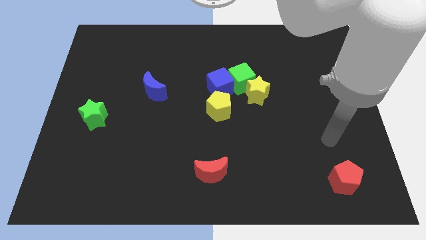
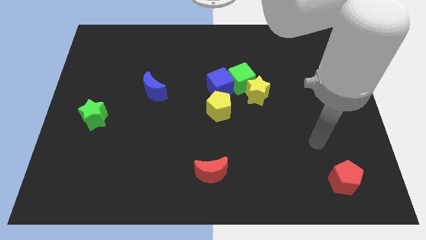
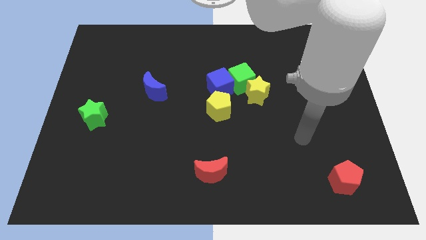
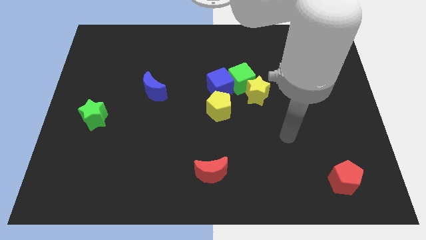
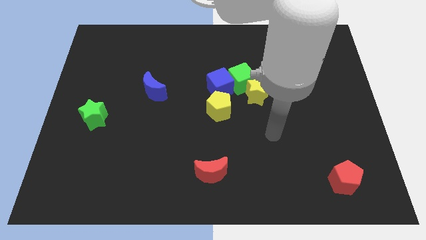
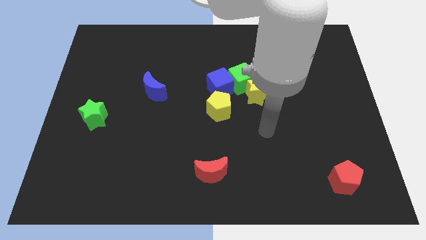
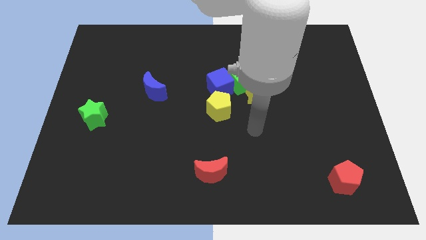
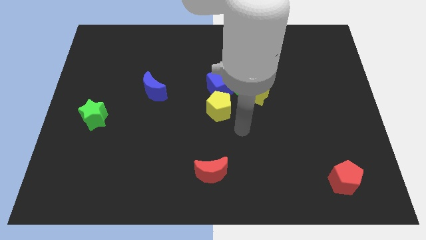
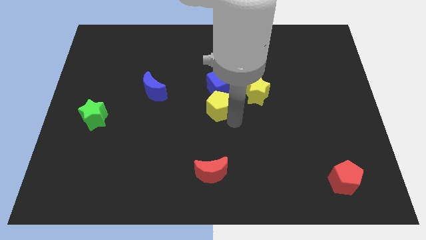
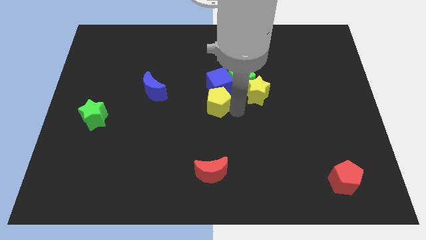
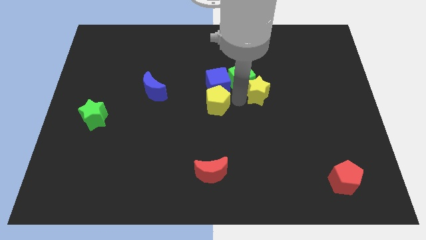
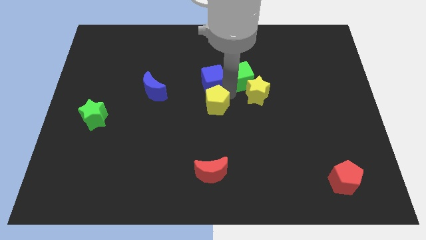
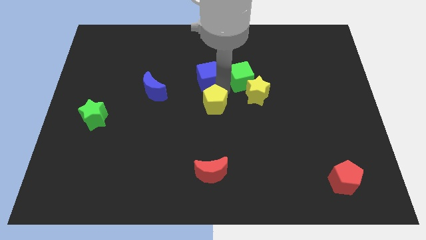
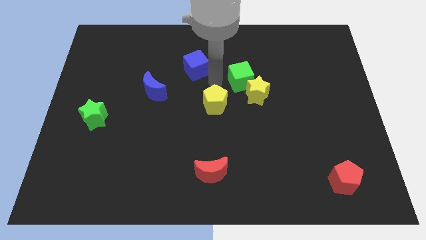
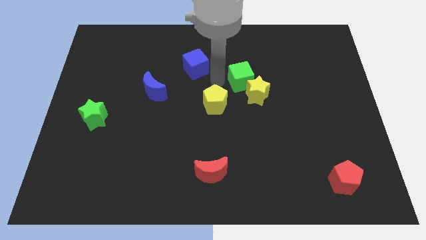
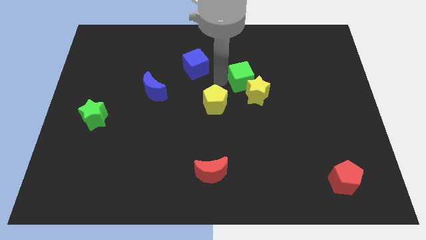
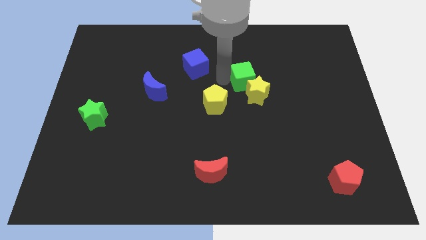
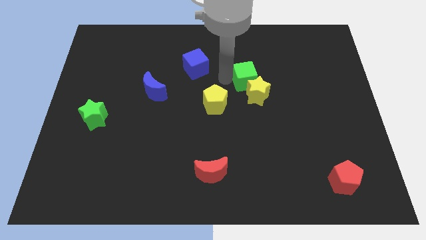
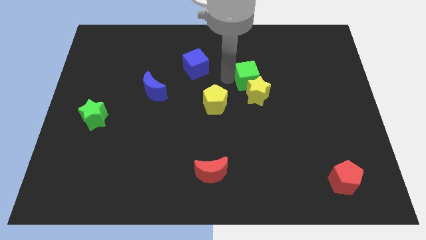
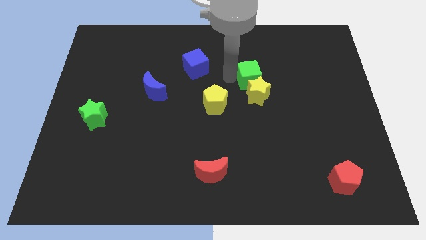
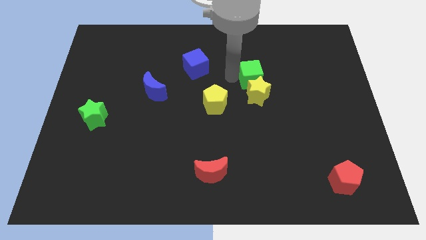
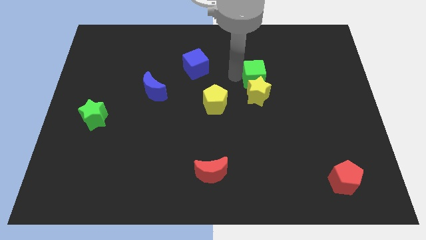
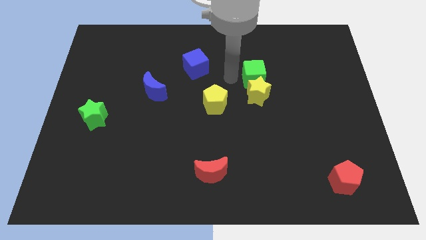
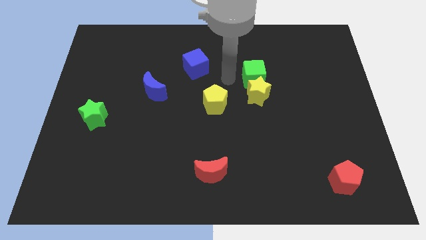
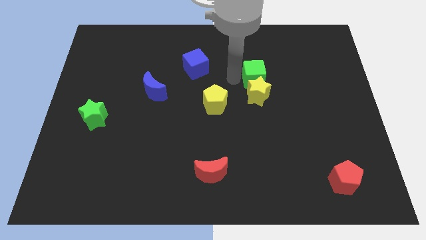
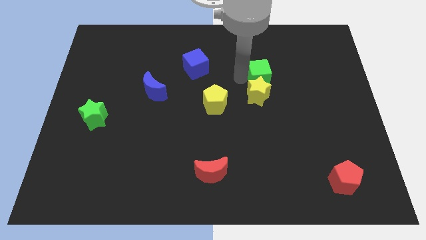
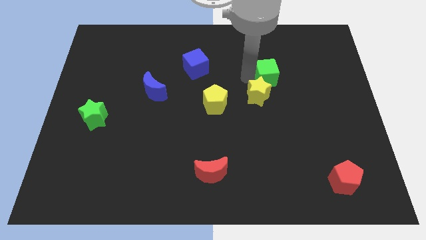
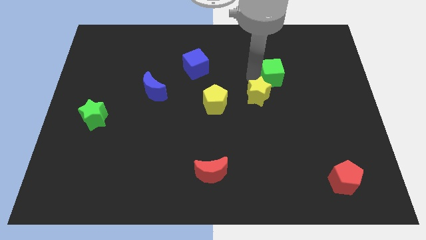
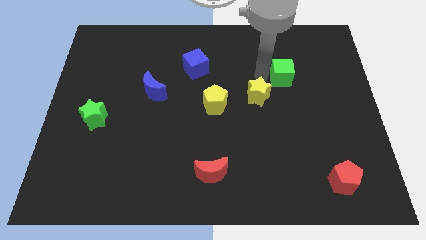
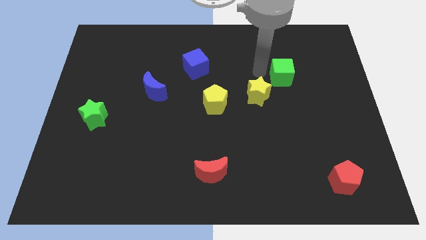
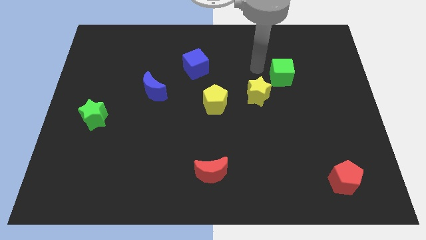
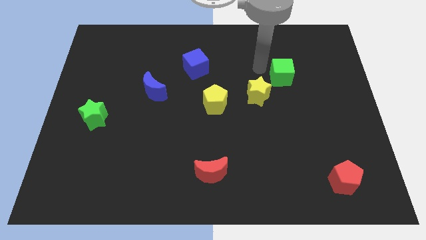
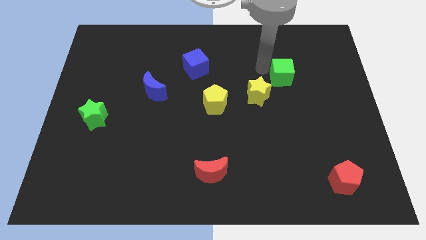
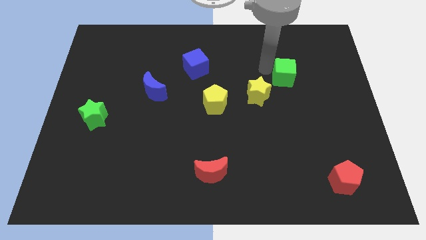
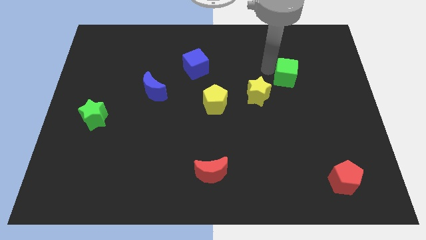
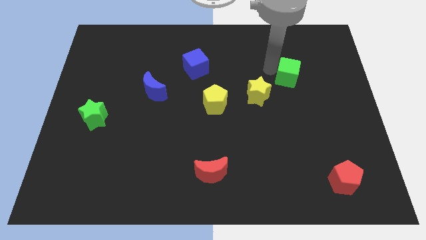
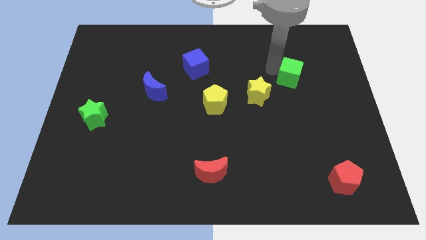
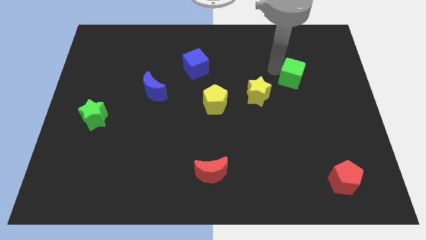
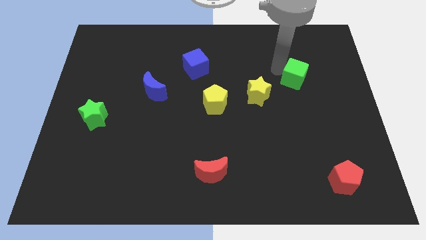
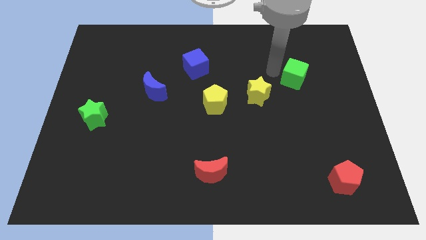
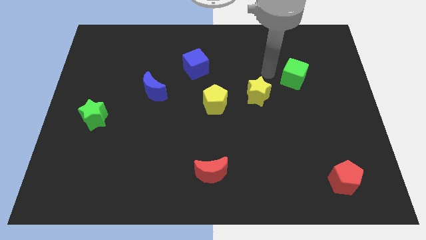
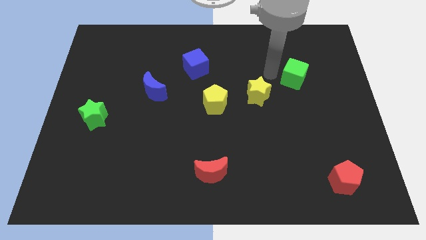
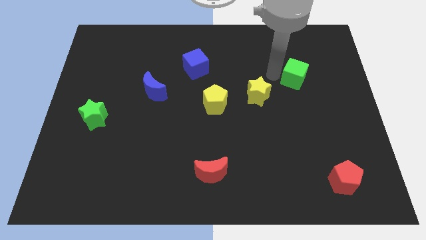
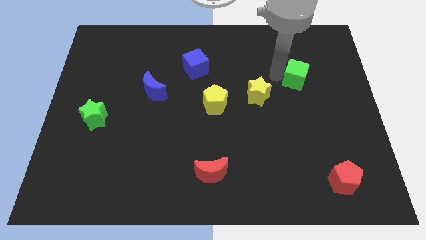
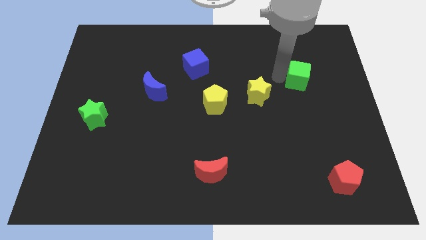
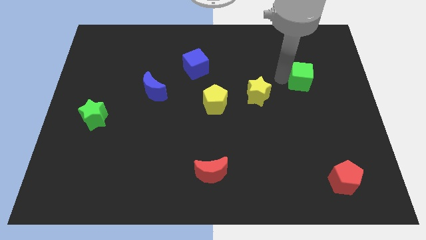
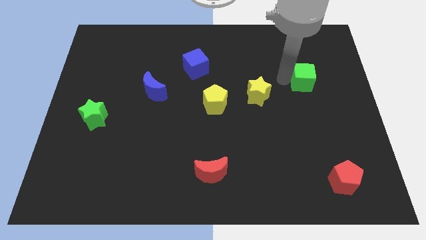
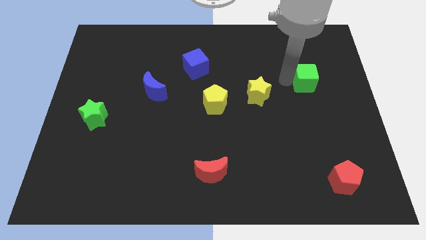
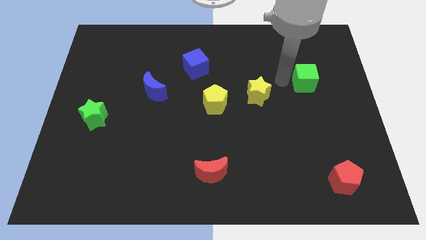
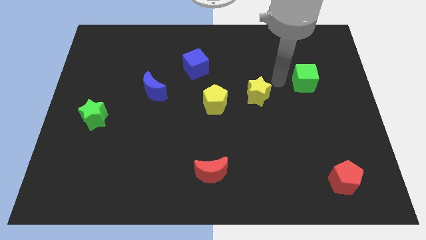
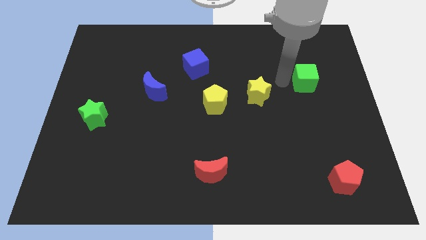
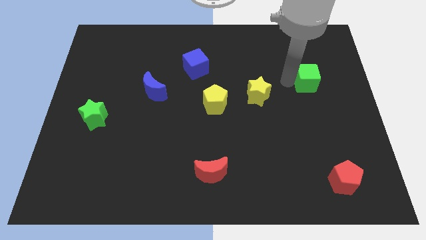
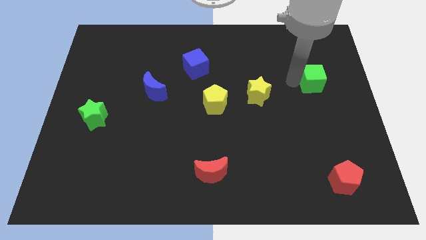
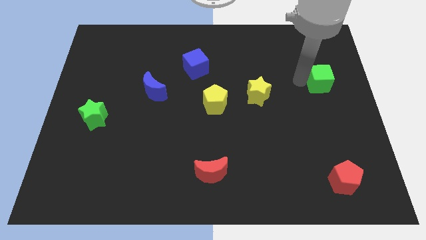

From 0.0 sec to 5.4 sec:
push the green cube to the right side

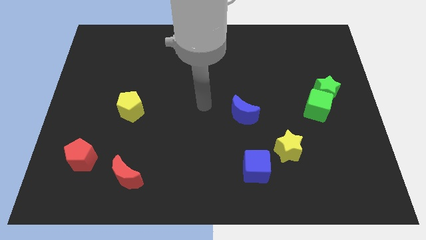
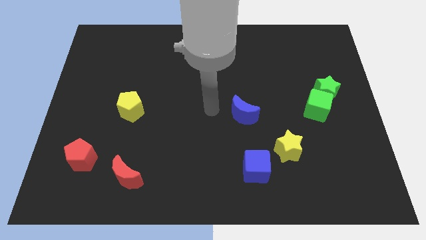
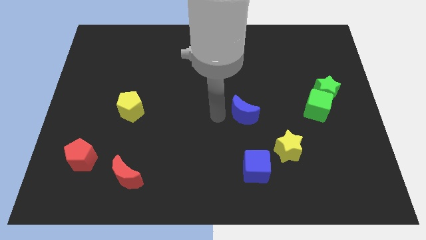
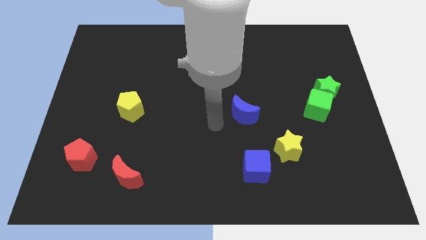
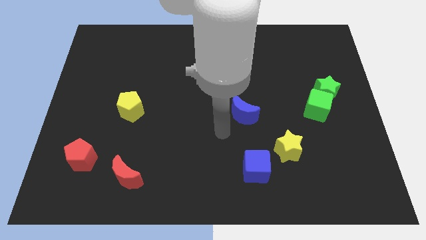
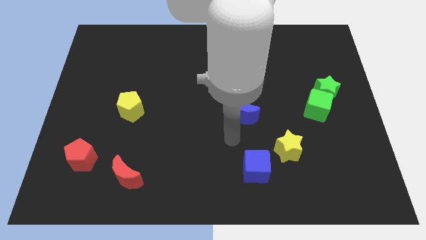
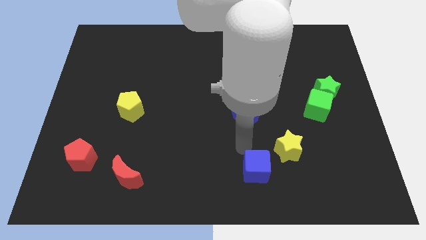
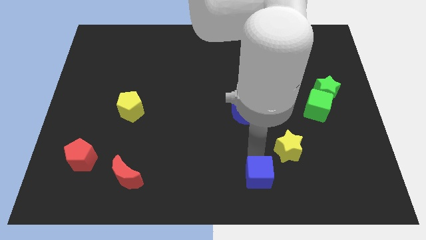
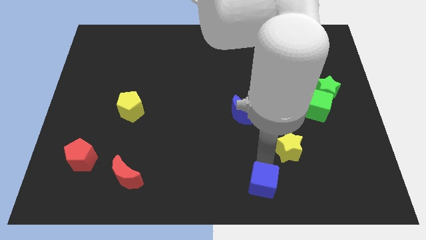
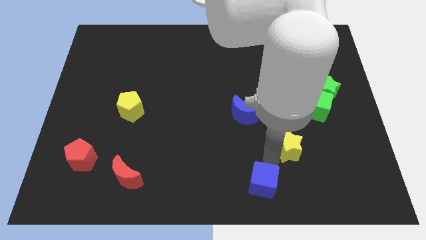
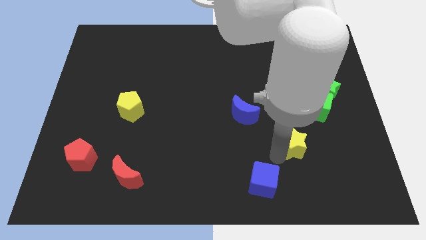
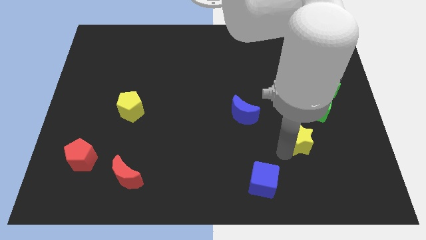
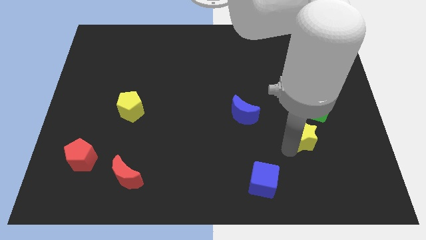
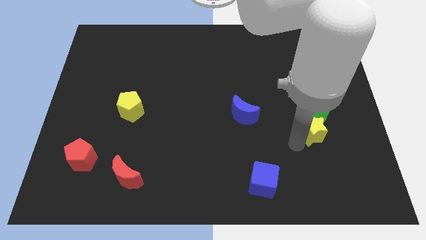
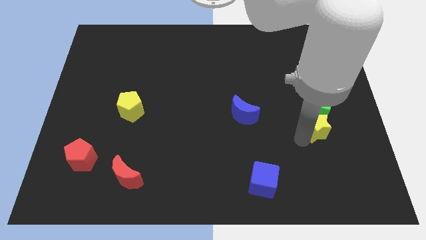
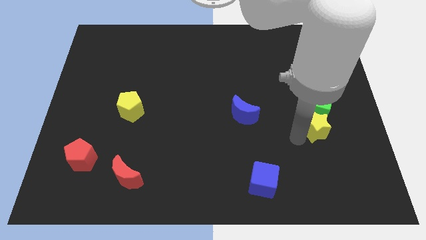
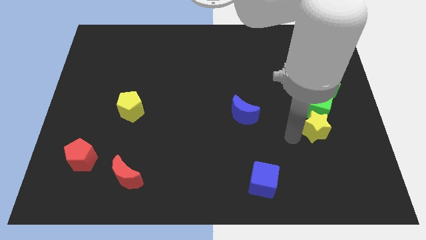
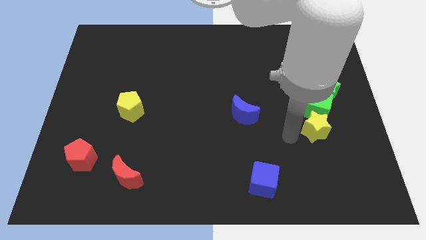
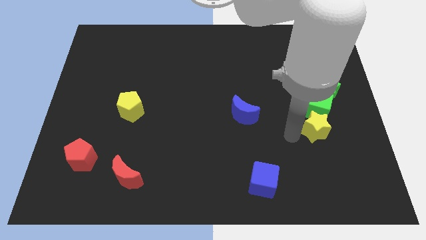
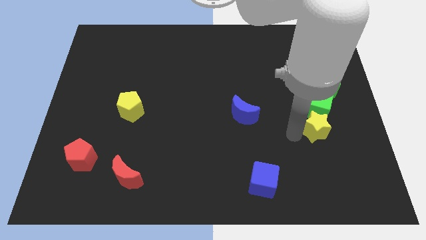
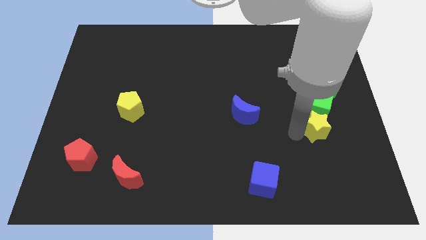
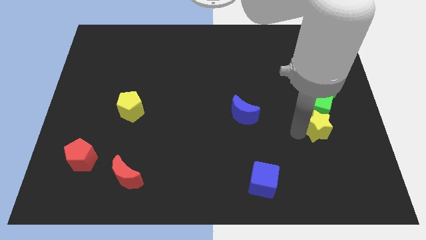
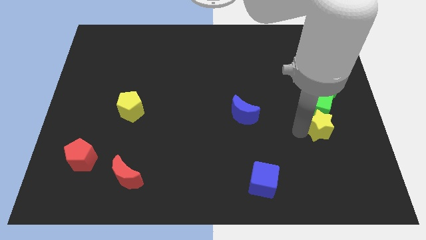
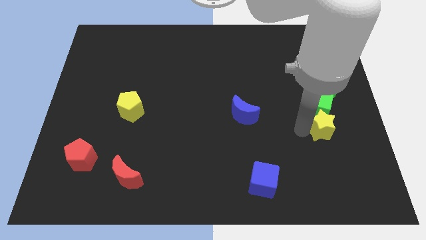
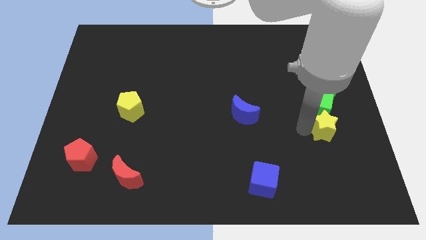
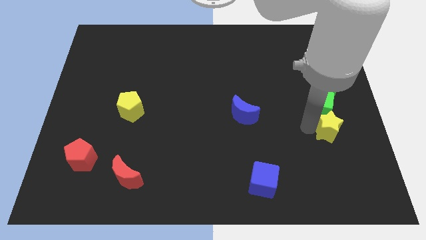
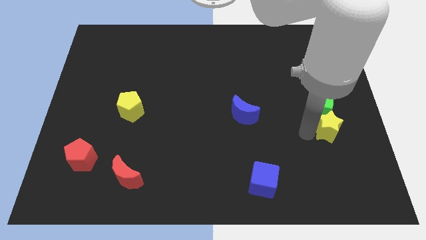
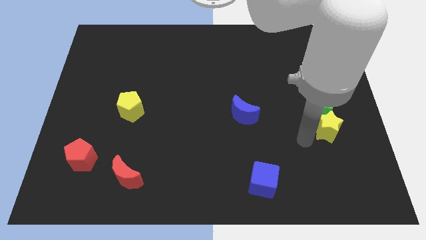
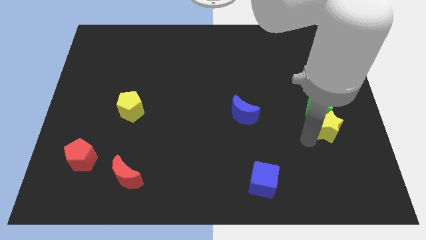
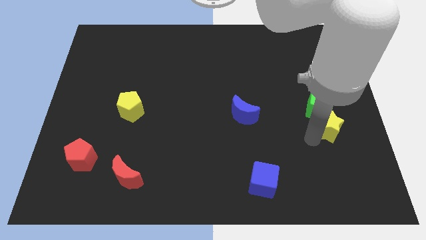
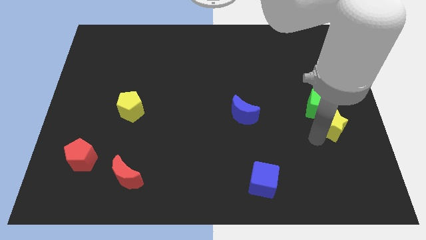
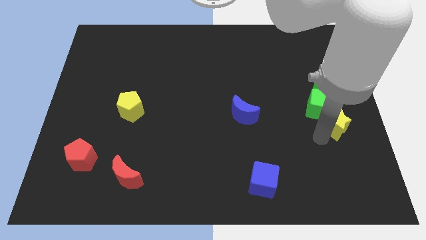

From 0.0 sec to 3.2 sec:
slide the yellow star to the right side of the board
